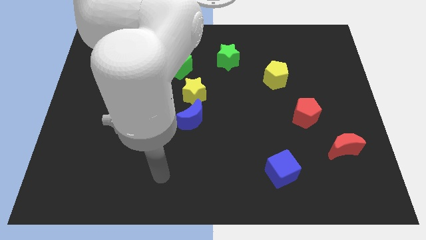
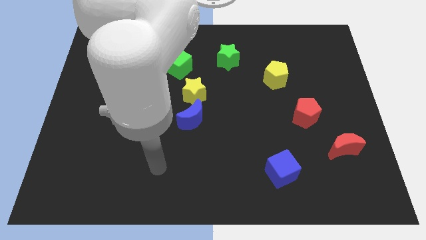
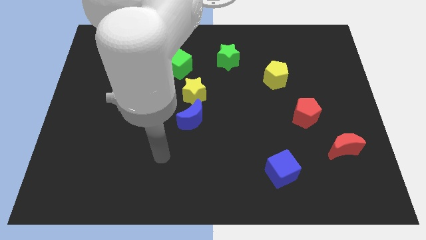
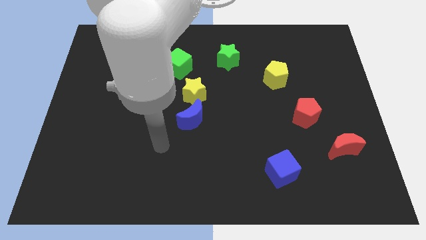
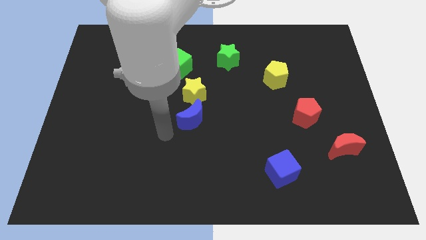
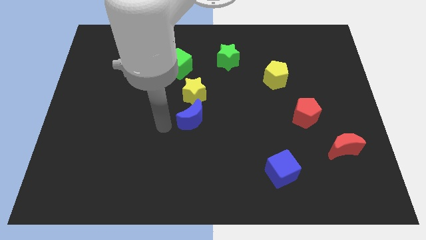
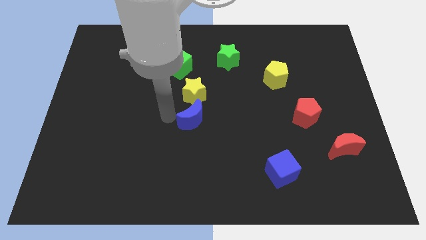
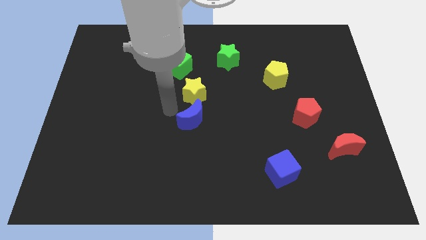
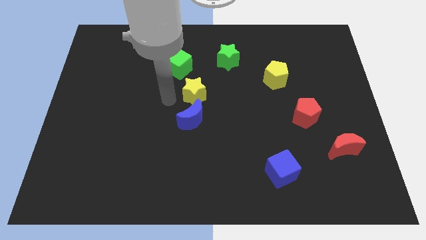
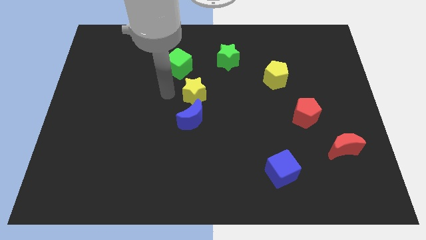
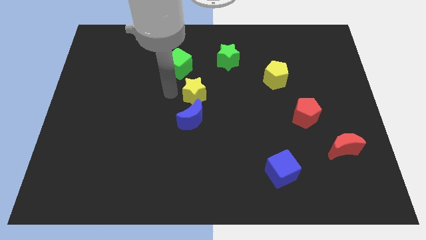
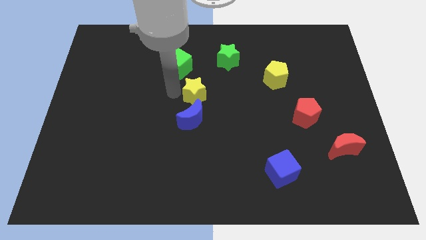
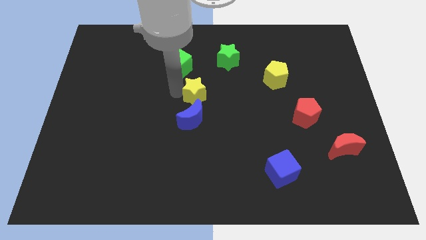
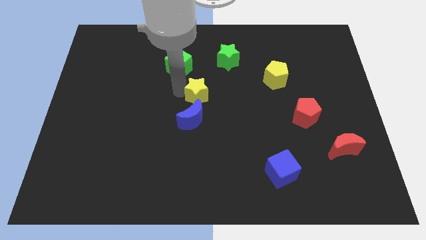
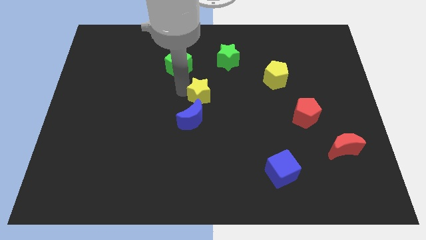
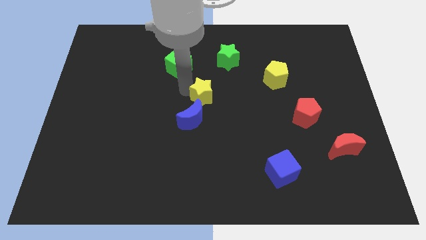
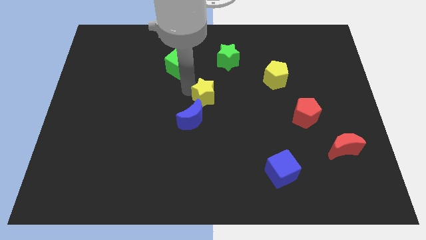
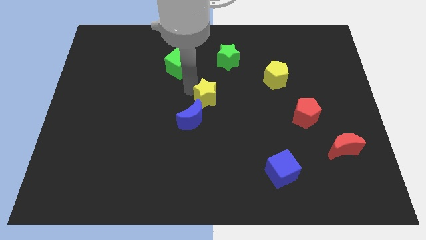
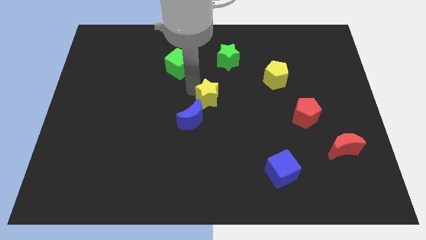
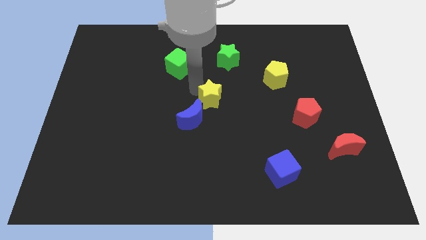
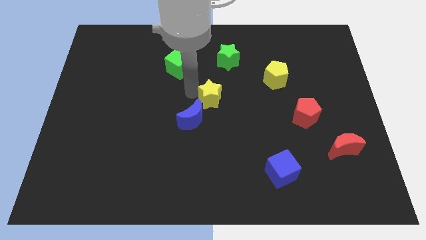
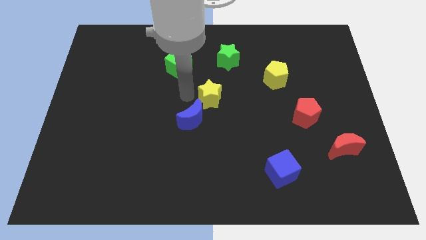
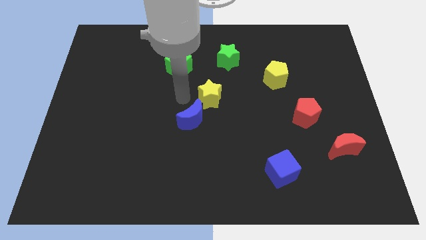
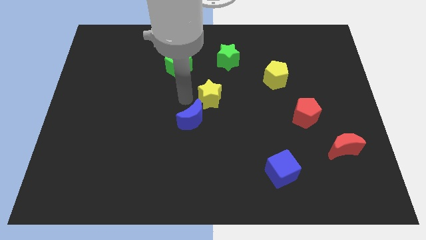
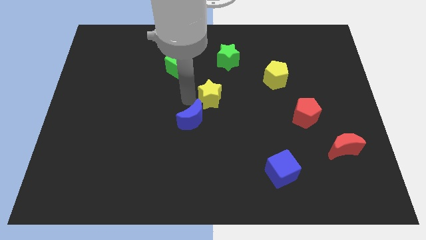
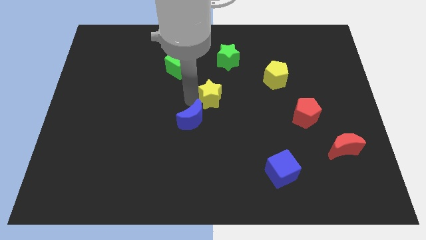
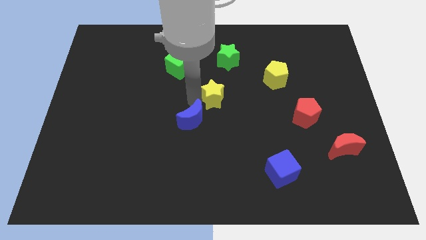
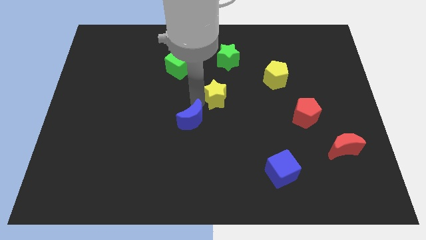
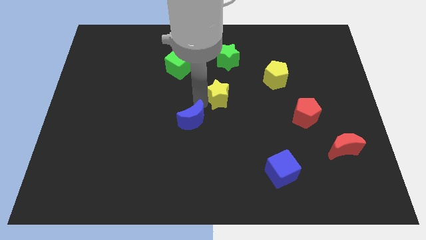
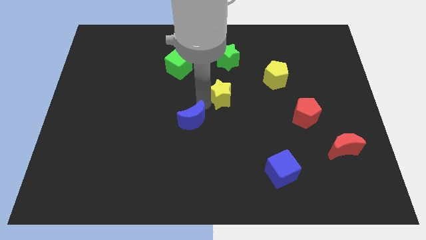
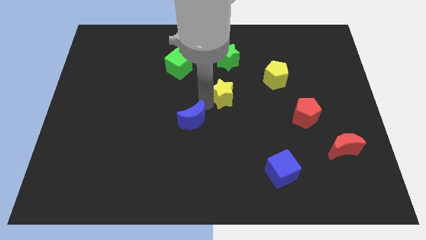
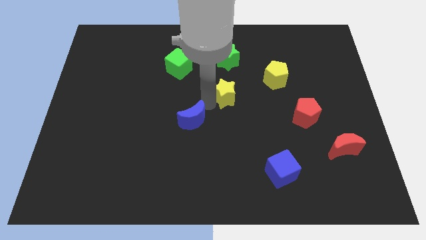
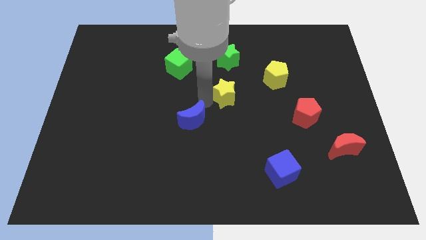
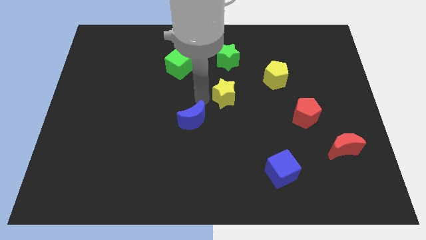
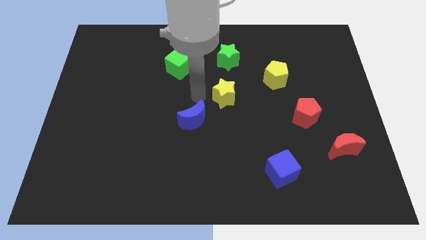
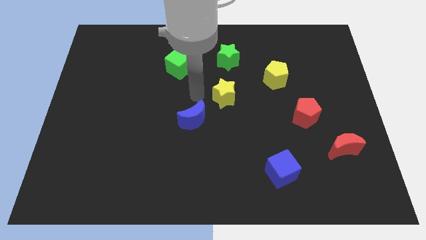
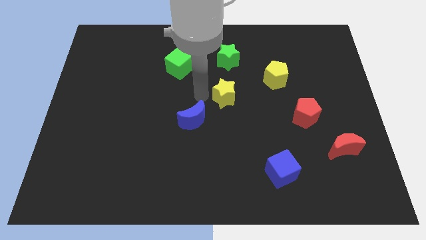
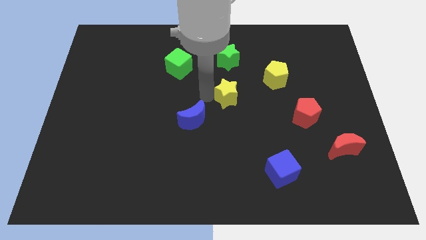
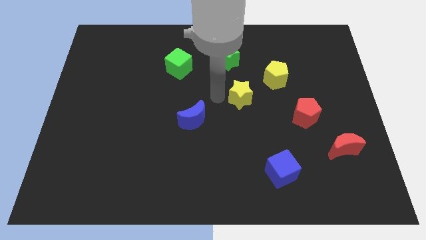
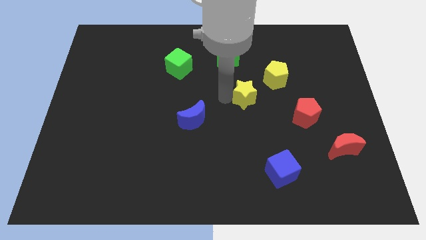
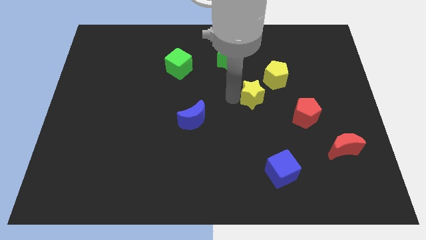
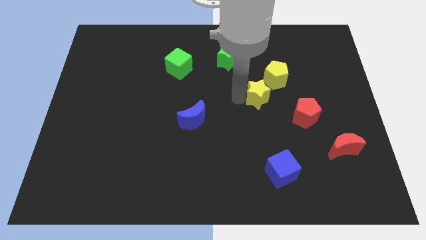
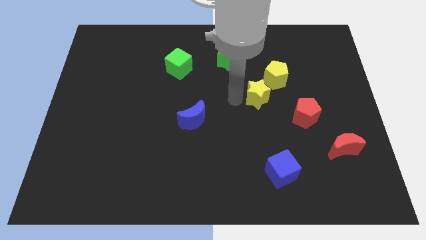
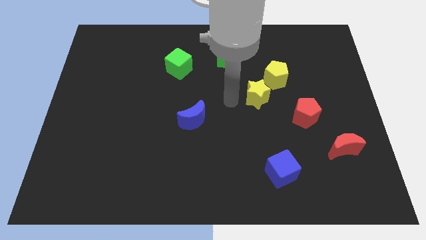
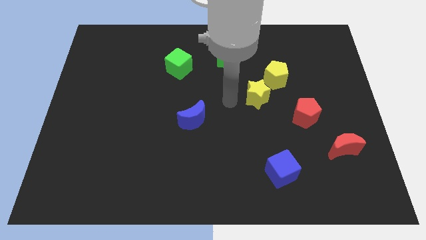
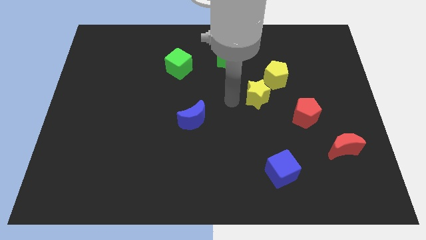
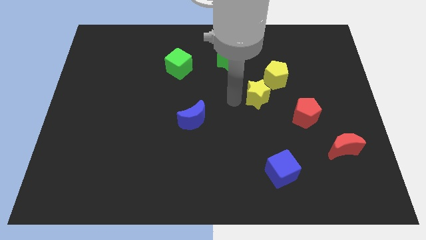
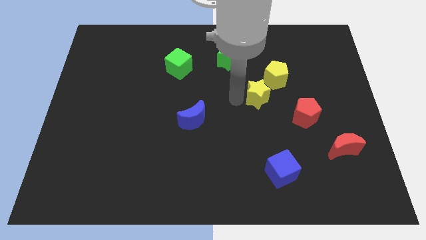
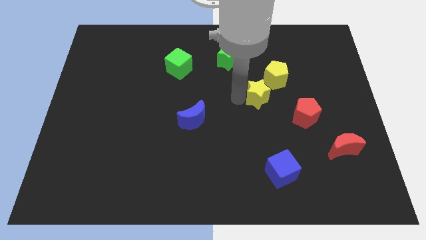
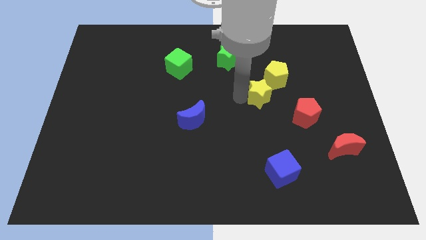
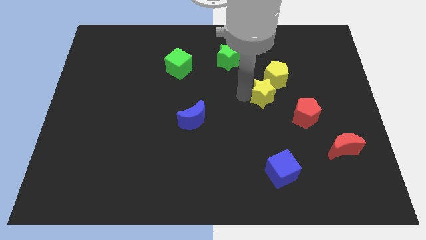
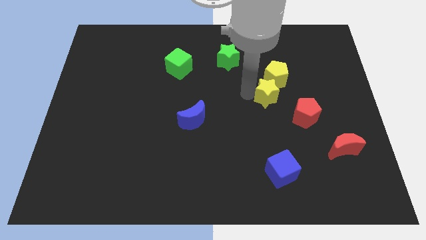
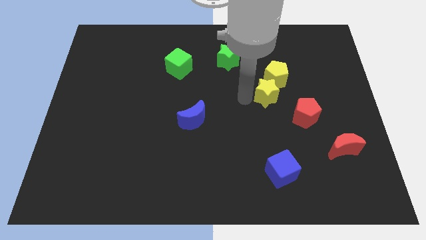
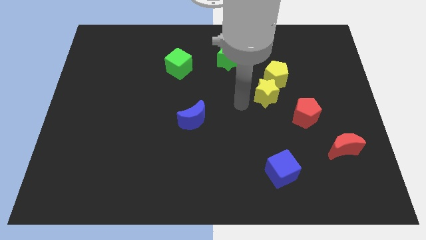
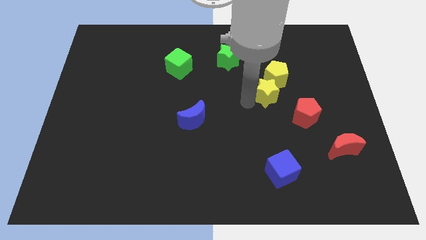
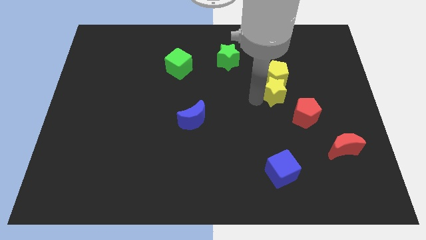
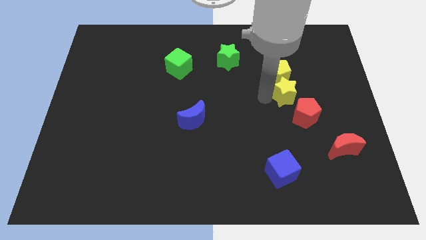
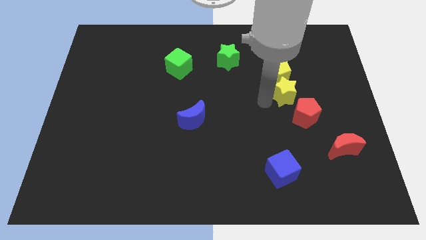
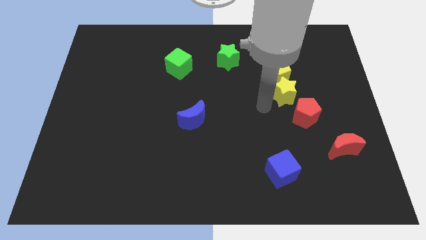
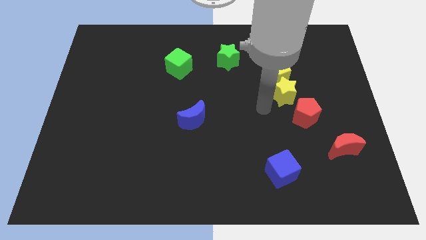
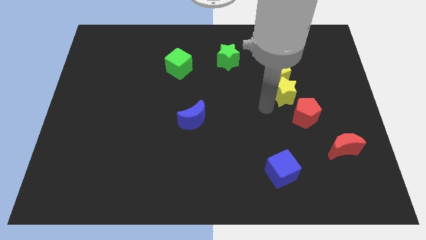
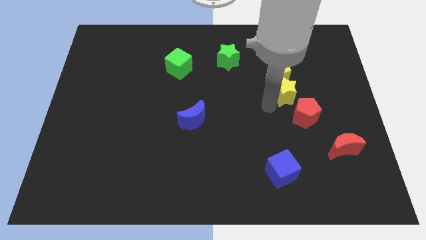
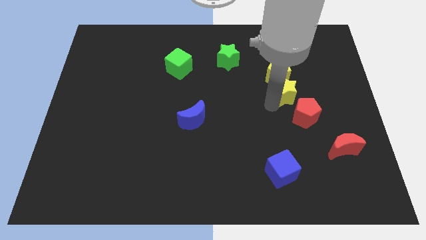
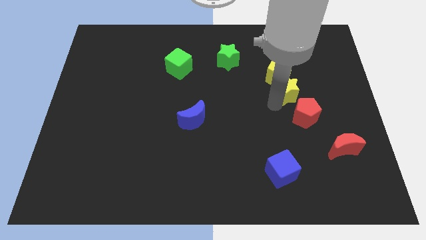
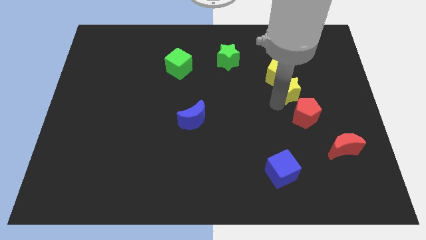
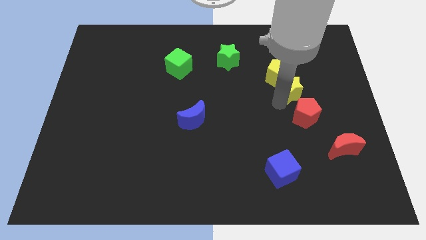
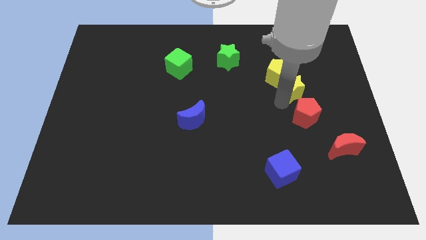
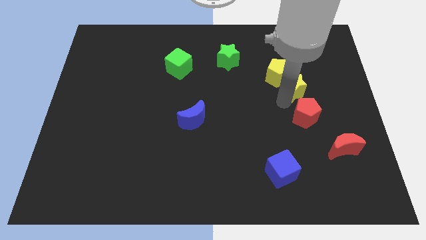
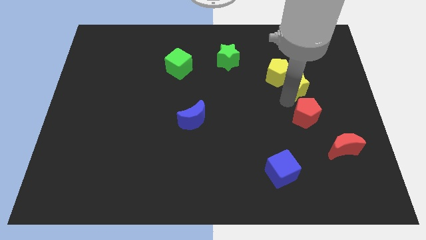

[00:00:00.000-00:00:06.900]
put the yellow star to the right of the yellow pentagon

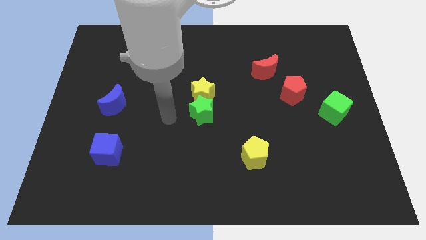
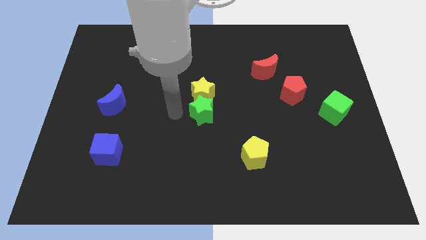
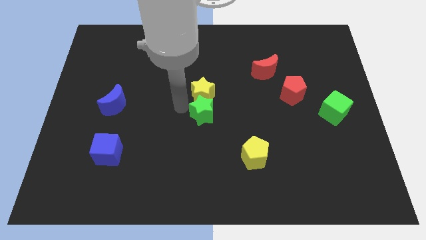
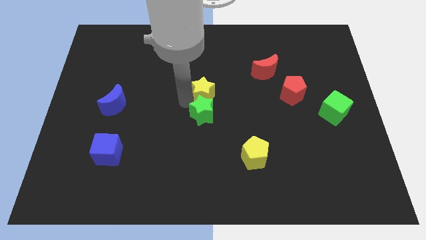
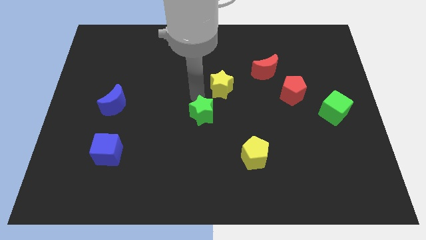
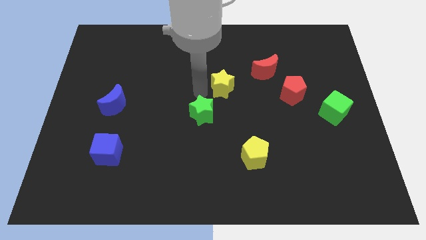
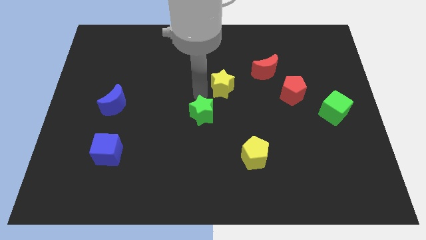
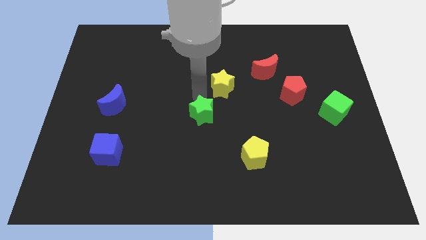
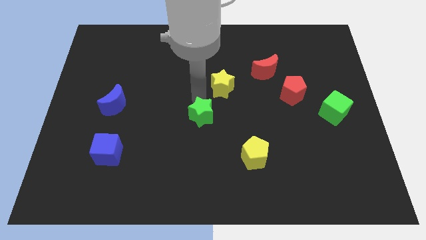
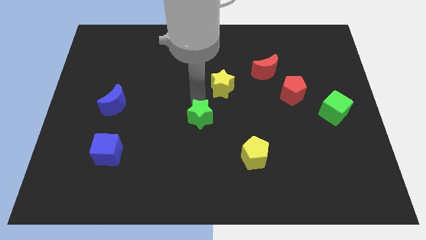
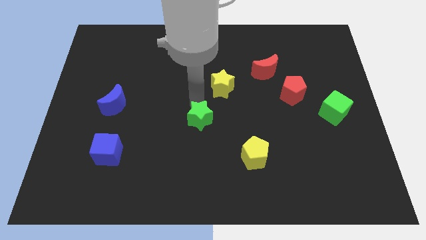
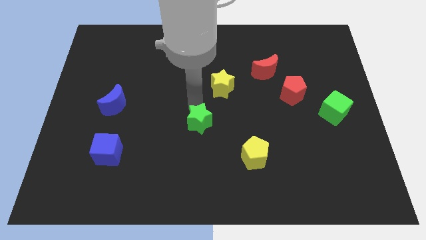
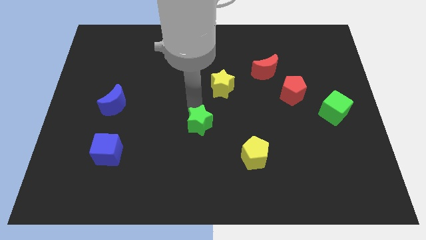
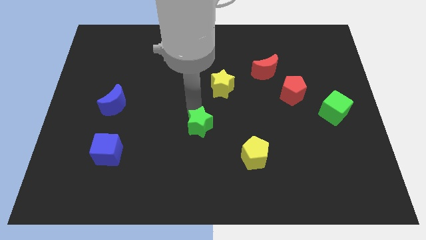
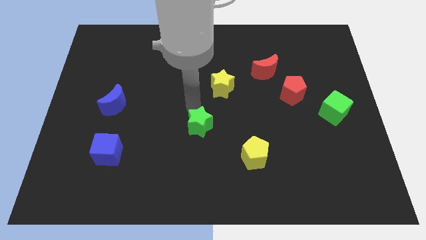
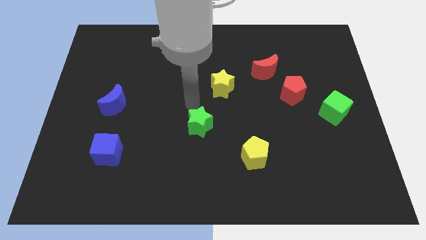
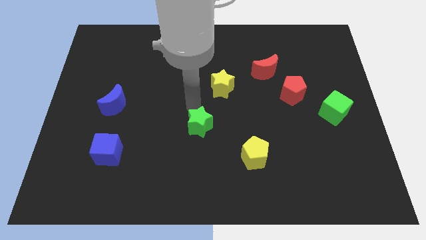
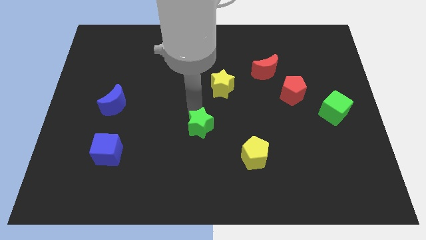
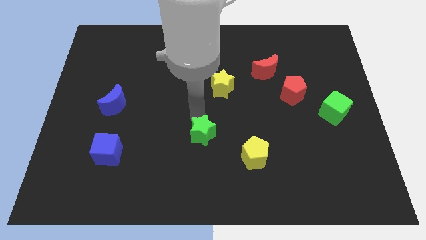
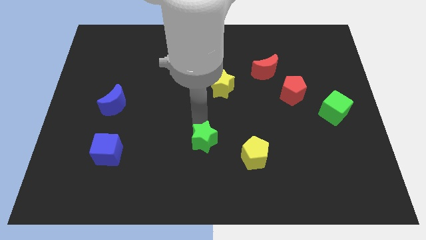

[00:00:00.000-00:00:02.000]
put the green star to the left of the yellow pentagon
